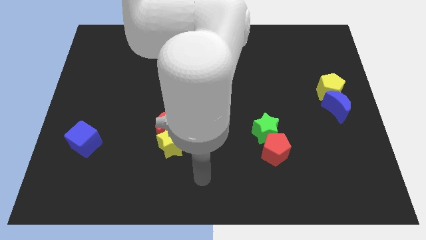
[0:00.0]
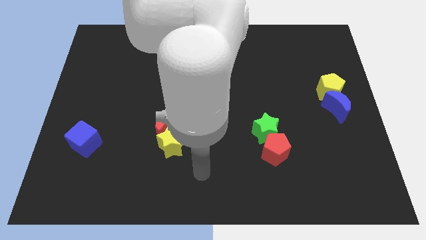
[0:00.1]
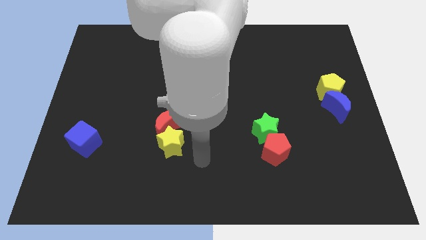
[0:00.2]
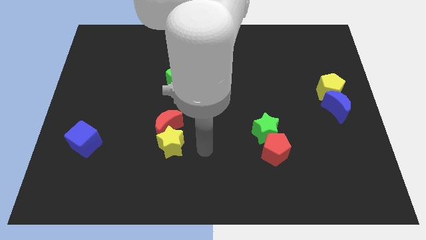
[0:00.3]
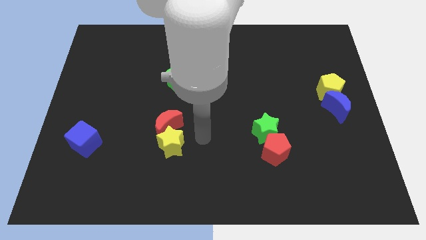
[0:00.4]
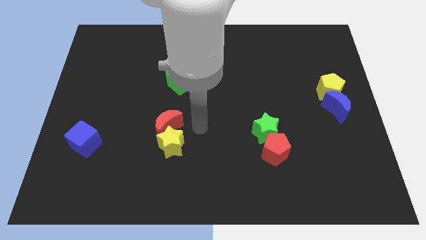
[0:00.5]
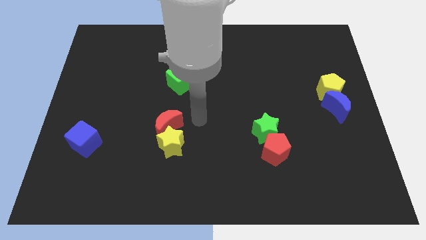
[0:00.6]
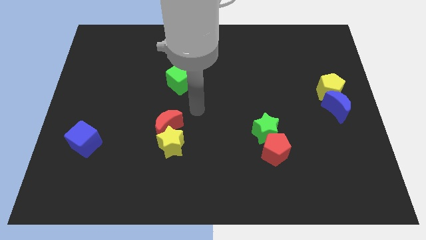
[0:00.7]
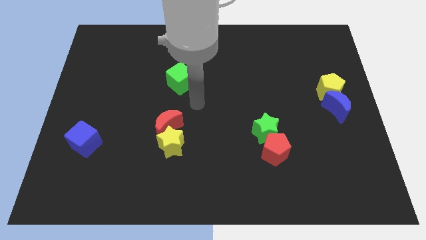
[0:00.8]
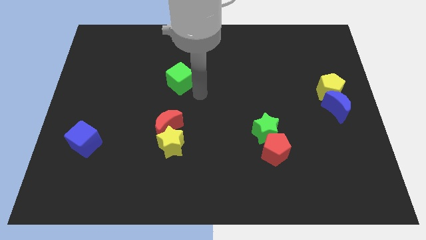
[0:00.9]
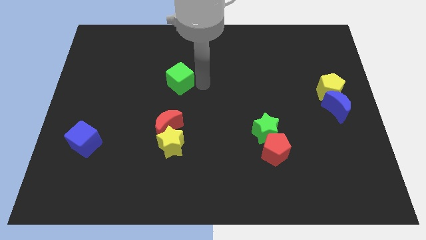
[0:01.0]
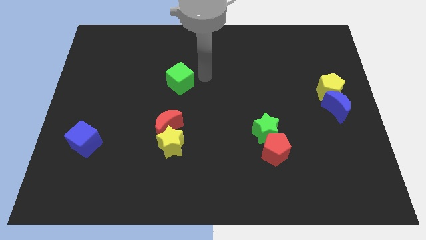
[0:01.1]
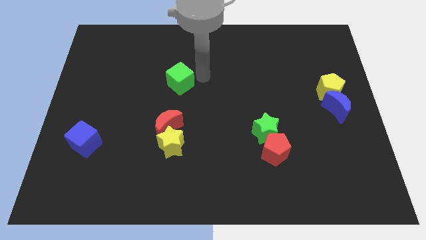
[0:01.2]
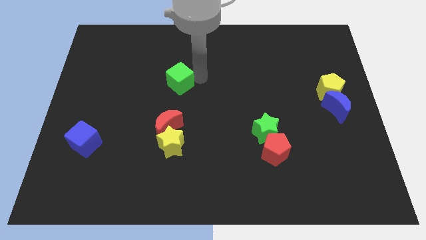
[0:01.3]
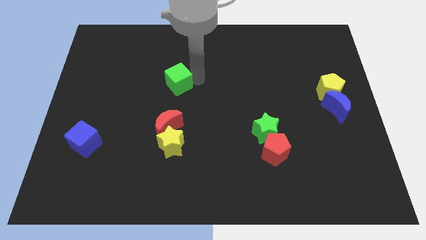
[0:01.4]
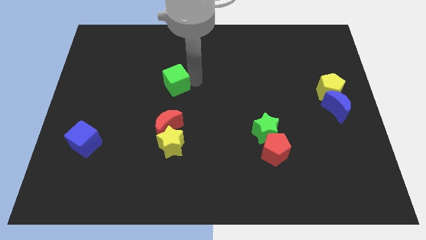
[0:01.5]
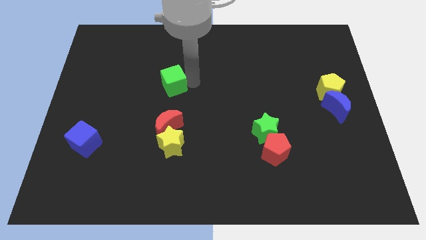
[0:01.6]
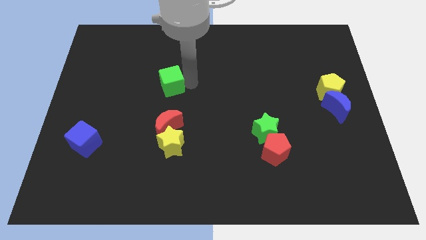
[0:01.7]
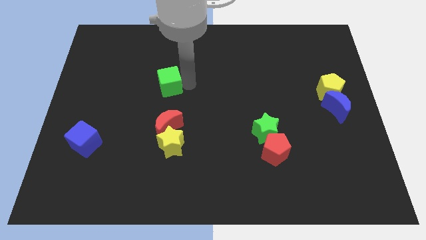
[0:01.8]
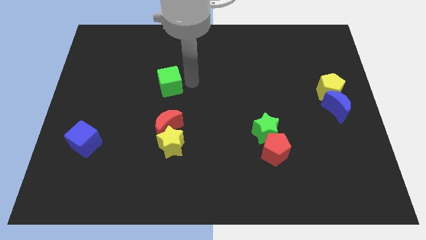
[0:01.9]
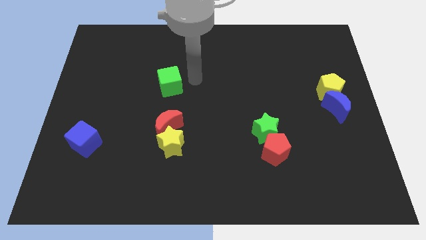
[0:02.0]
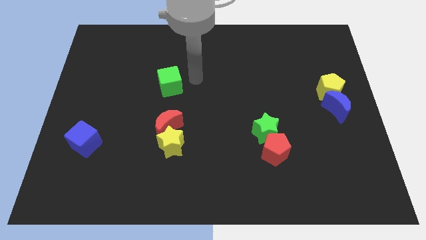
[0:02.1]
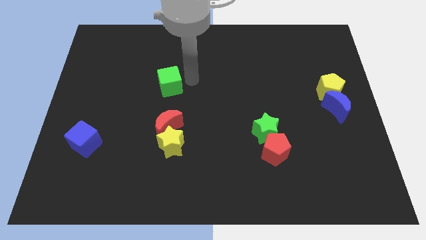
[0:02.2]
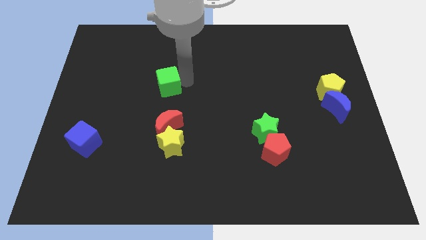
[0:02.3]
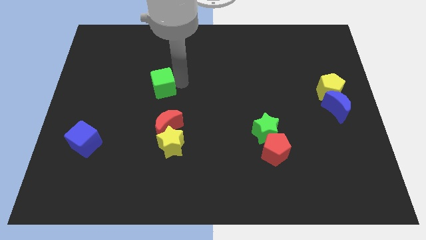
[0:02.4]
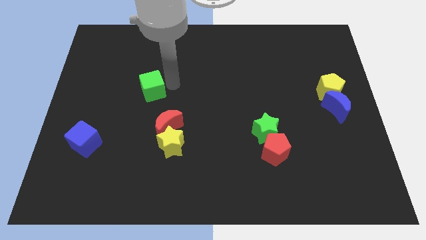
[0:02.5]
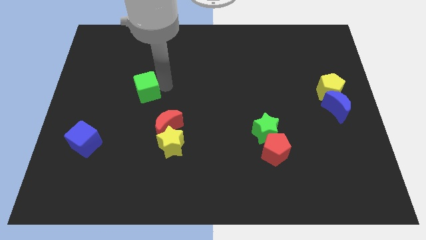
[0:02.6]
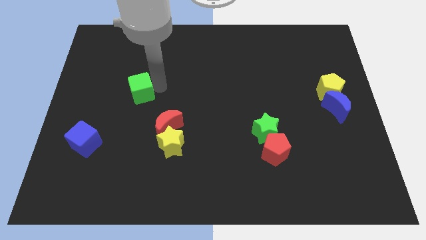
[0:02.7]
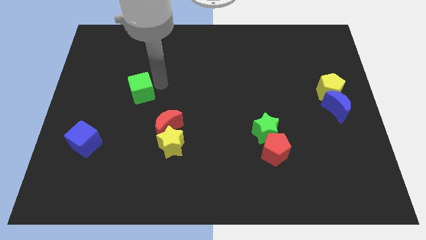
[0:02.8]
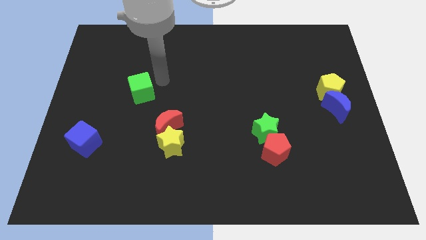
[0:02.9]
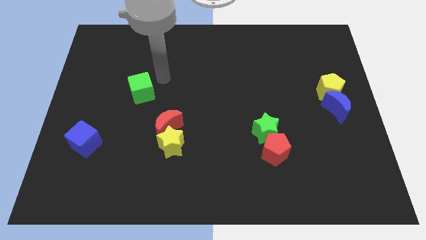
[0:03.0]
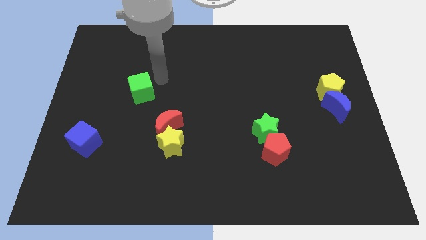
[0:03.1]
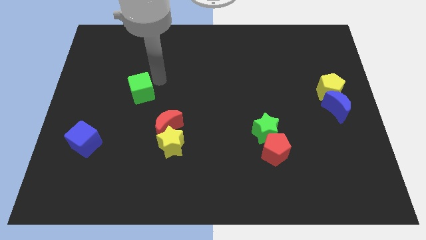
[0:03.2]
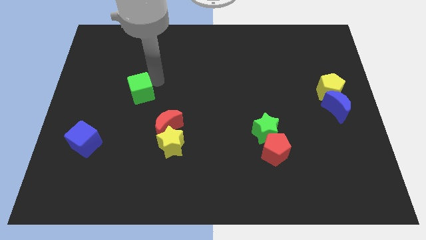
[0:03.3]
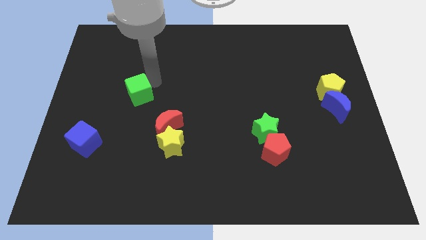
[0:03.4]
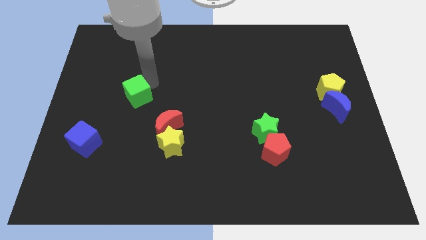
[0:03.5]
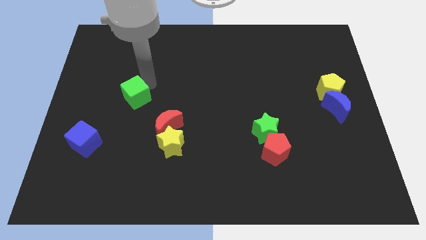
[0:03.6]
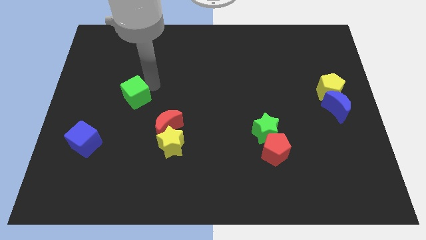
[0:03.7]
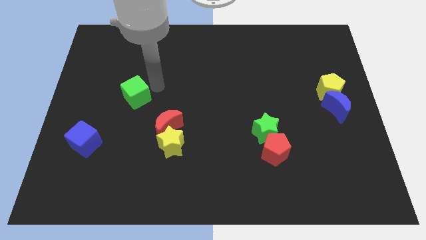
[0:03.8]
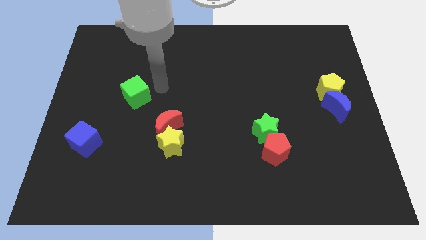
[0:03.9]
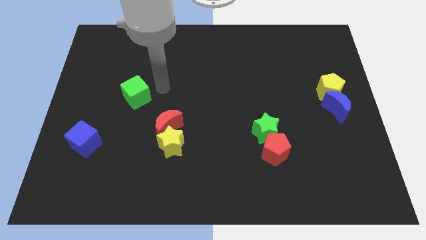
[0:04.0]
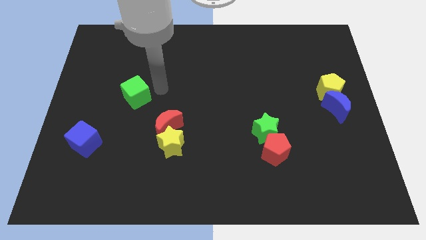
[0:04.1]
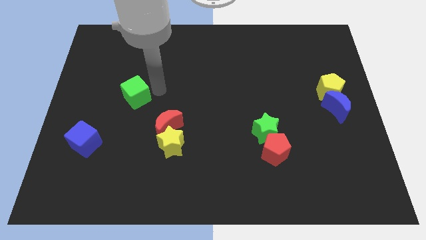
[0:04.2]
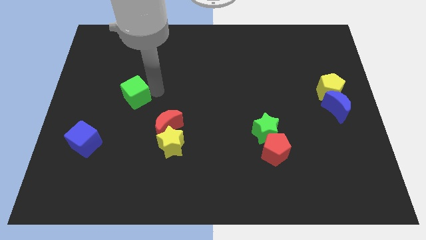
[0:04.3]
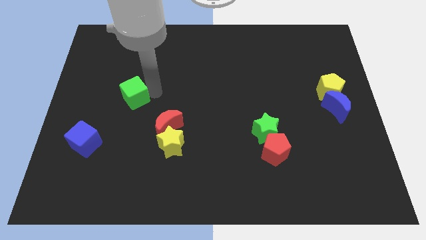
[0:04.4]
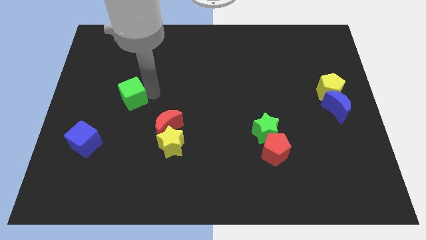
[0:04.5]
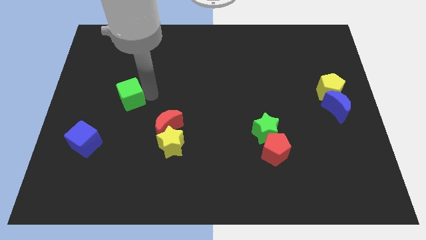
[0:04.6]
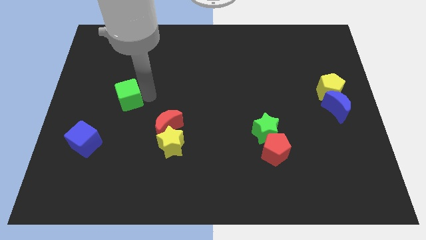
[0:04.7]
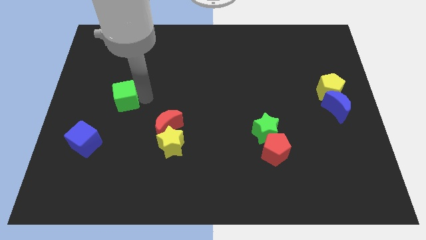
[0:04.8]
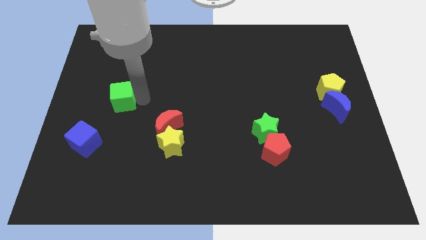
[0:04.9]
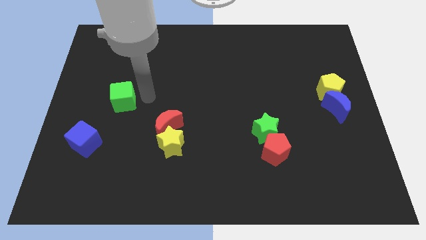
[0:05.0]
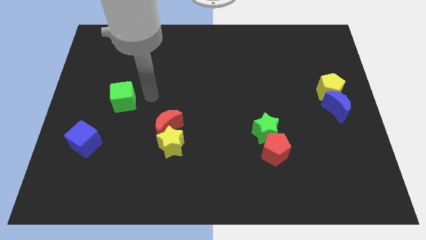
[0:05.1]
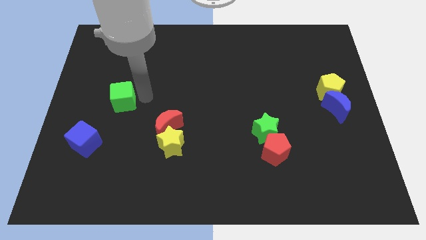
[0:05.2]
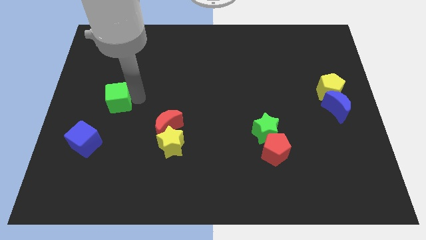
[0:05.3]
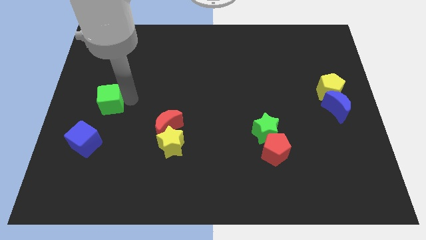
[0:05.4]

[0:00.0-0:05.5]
slide the green cube to the top of the blue cube

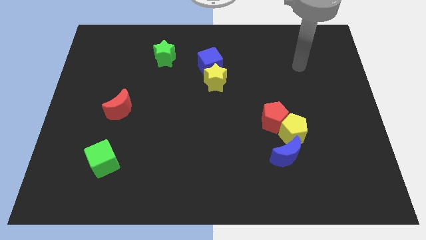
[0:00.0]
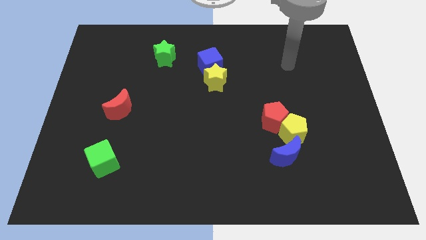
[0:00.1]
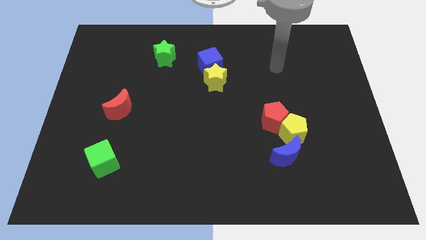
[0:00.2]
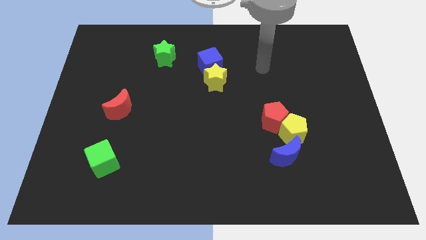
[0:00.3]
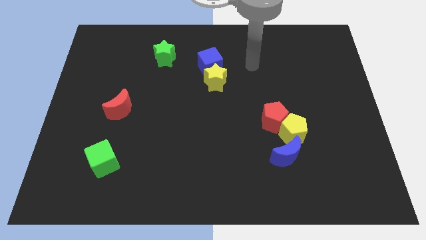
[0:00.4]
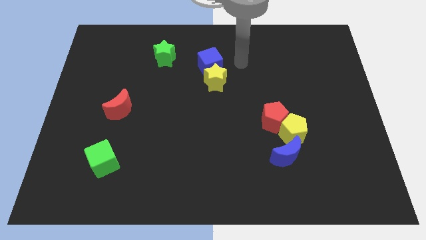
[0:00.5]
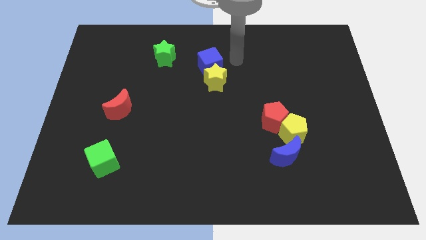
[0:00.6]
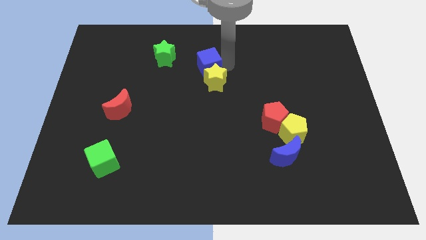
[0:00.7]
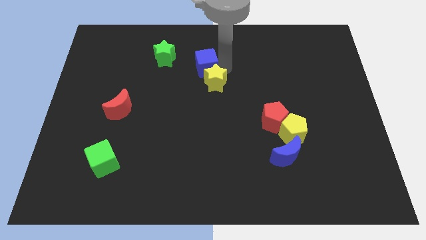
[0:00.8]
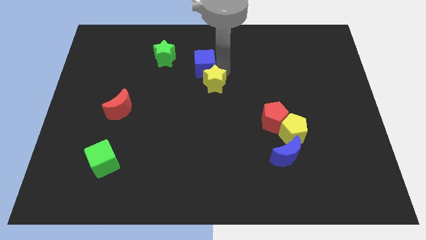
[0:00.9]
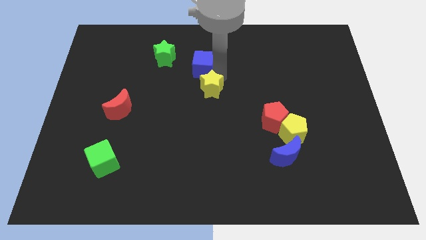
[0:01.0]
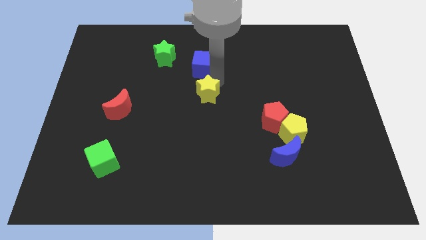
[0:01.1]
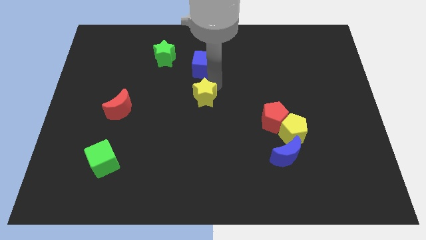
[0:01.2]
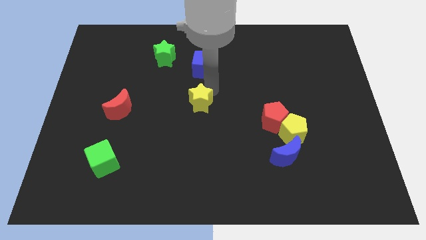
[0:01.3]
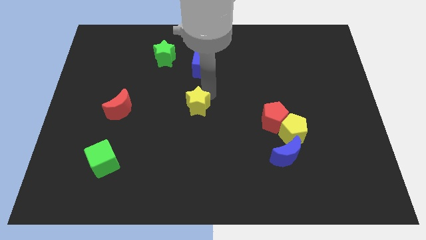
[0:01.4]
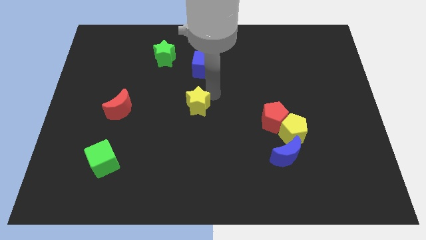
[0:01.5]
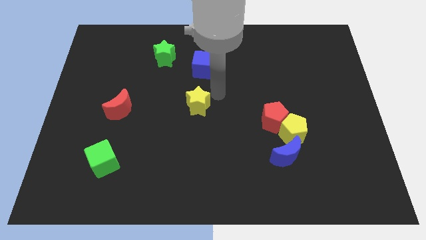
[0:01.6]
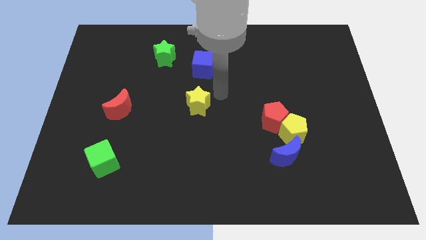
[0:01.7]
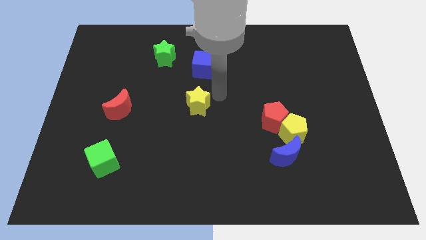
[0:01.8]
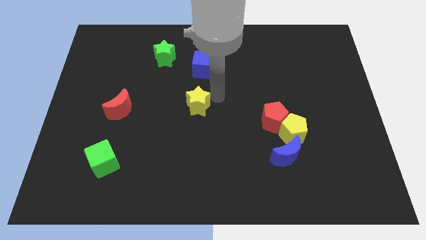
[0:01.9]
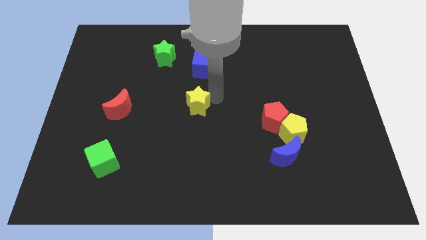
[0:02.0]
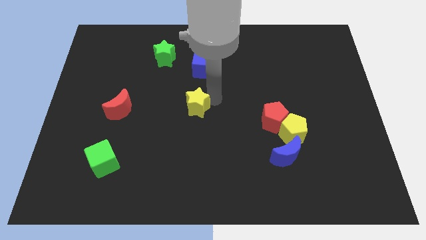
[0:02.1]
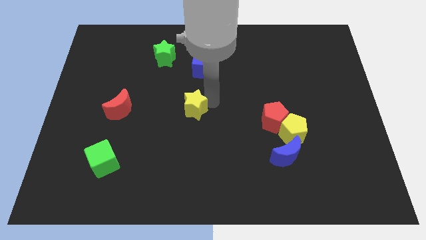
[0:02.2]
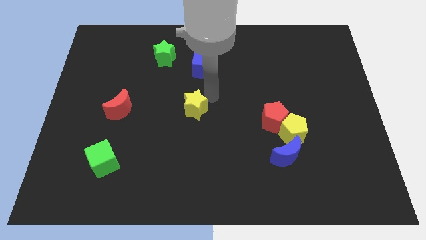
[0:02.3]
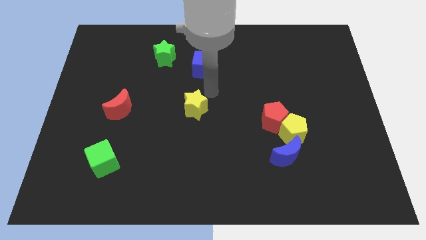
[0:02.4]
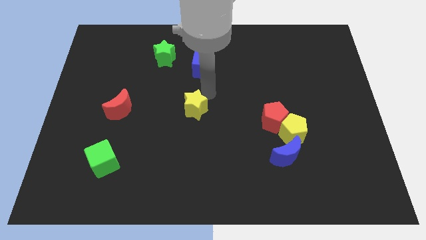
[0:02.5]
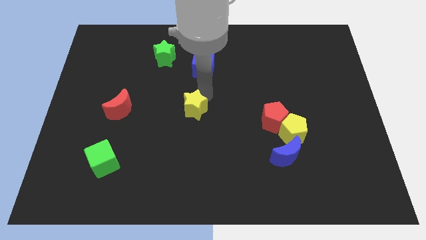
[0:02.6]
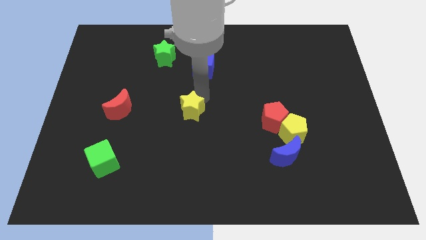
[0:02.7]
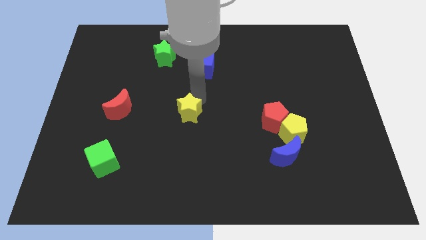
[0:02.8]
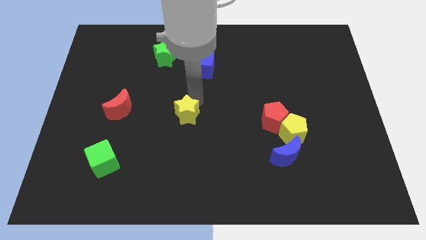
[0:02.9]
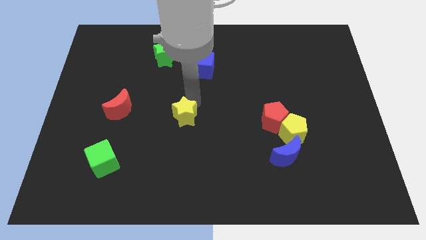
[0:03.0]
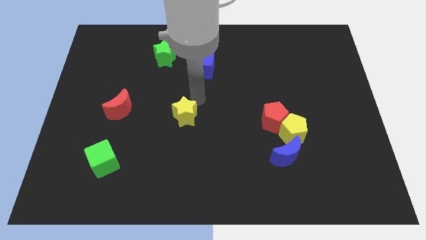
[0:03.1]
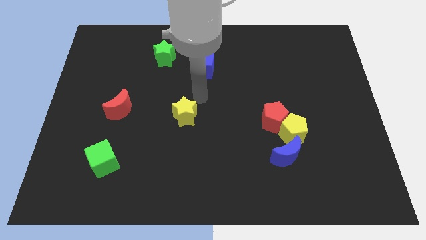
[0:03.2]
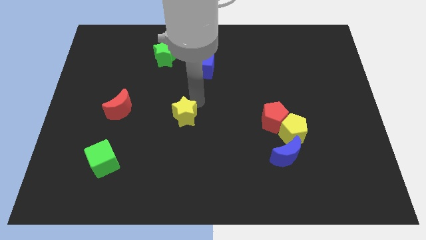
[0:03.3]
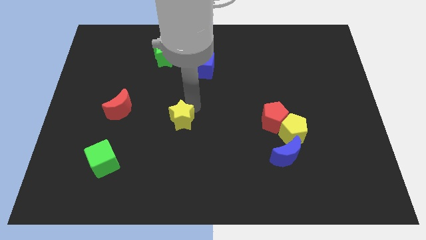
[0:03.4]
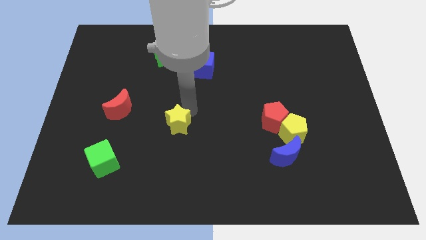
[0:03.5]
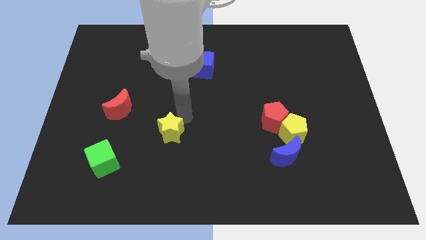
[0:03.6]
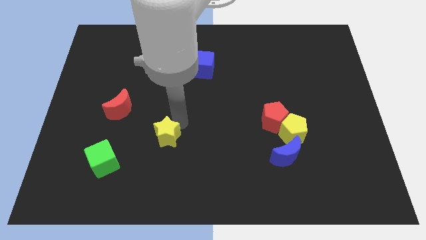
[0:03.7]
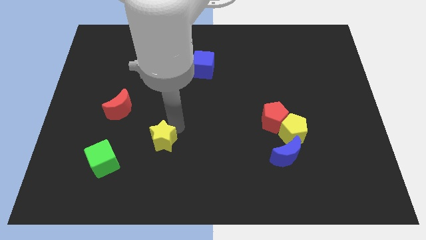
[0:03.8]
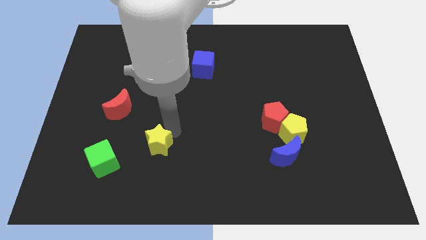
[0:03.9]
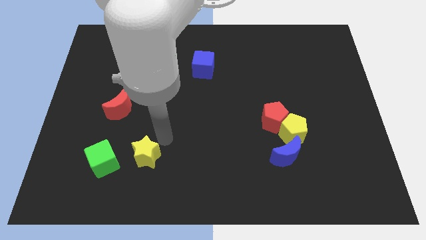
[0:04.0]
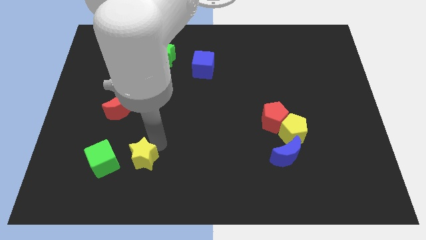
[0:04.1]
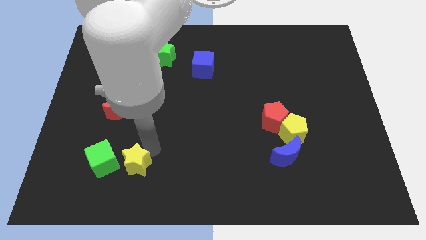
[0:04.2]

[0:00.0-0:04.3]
slide the yellow star diagonally down and to the right of the green cube
